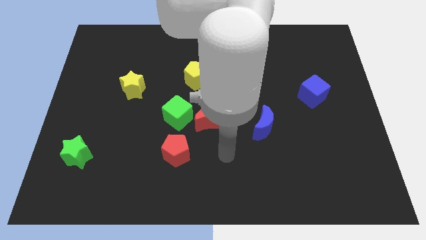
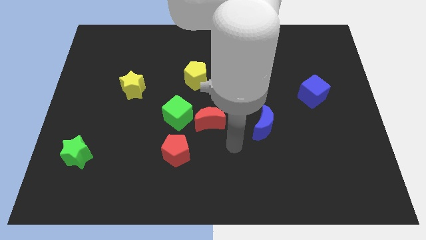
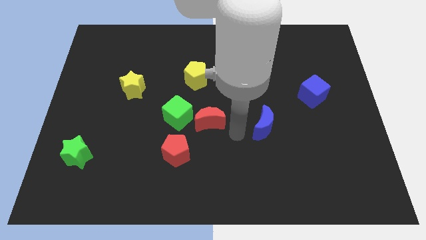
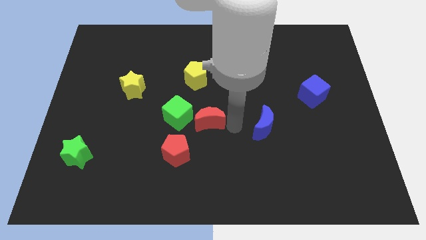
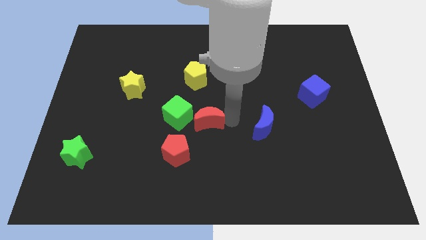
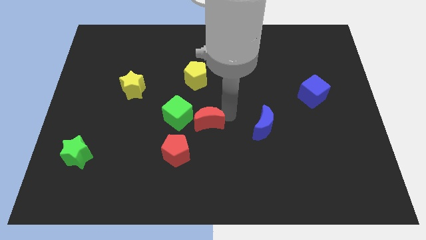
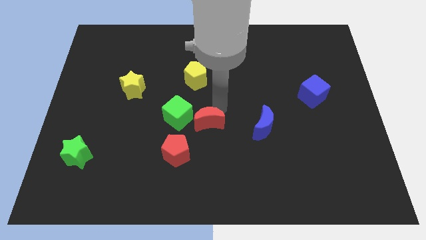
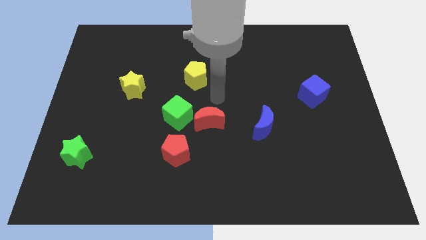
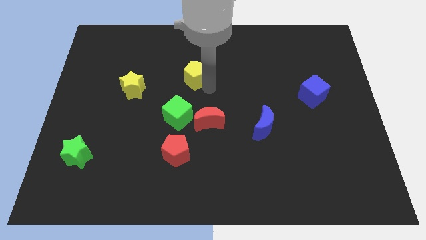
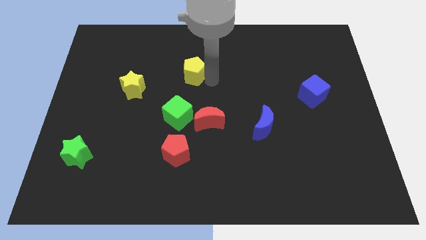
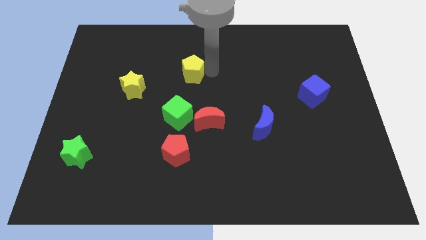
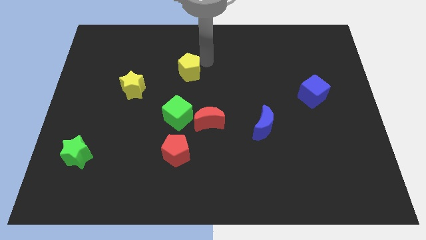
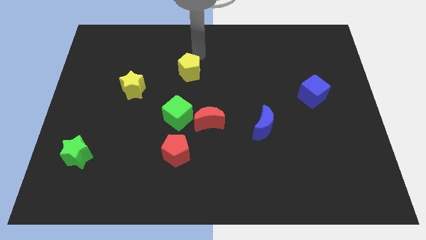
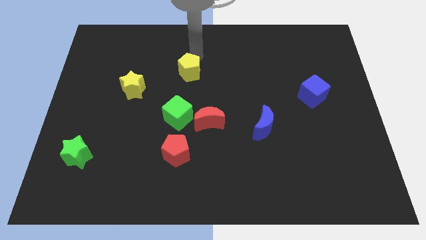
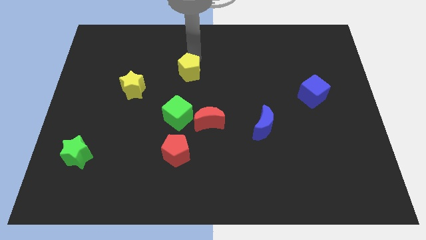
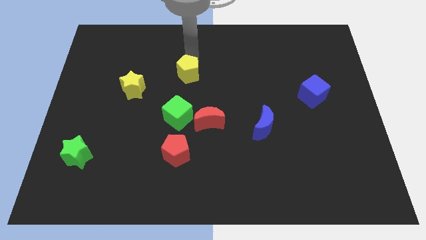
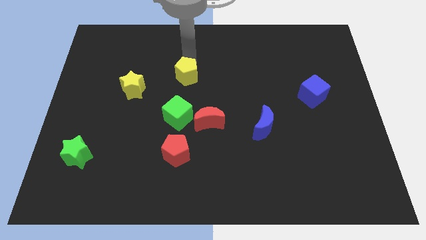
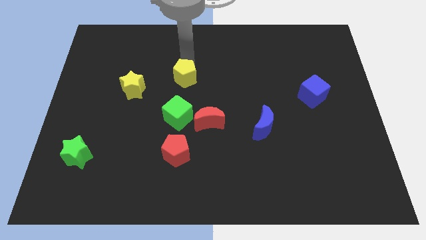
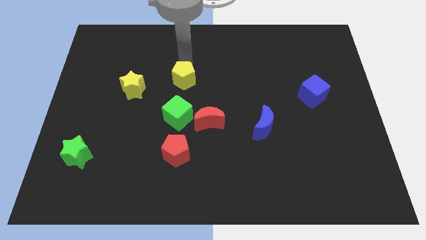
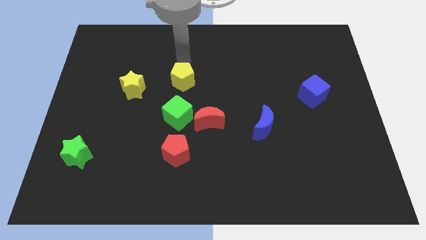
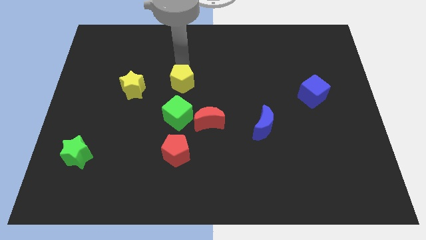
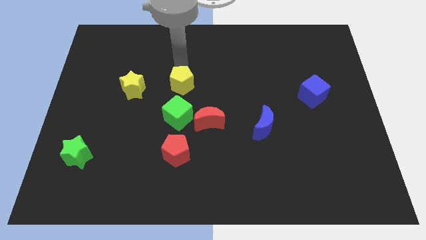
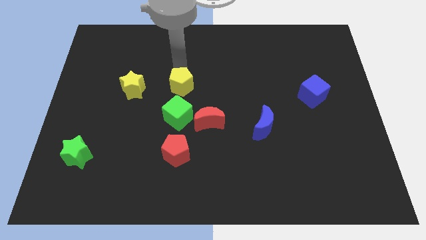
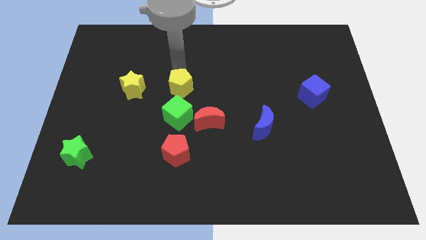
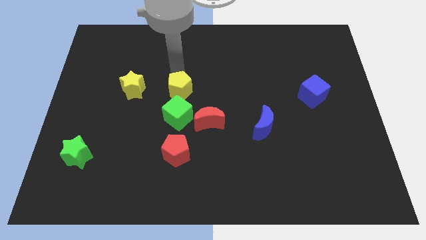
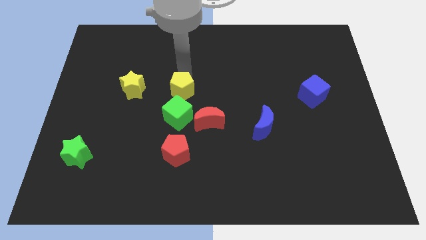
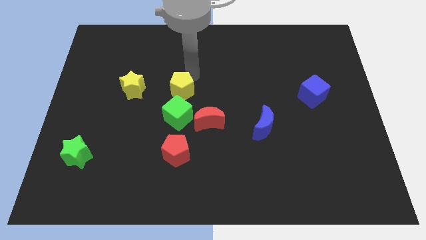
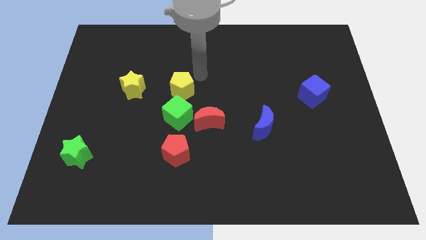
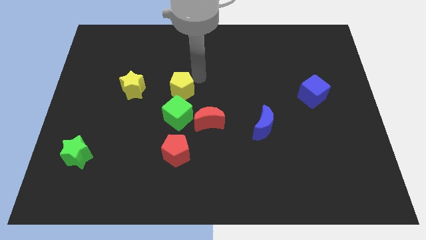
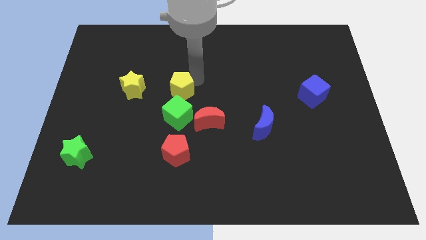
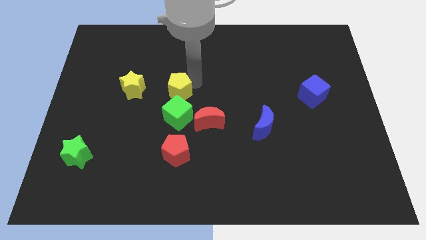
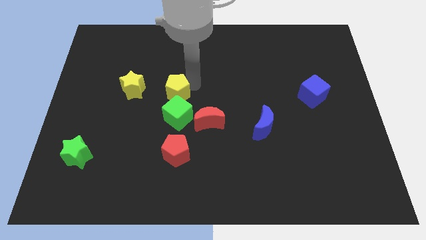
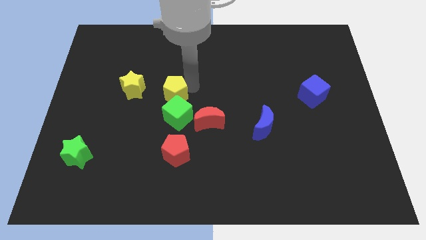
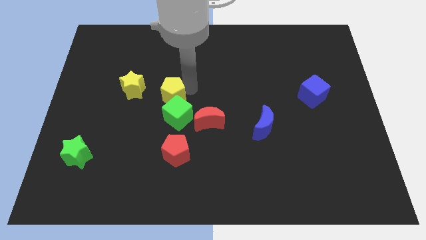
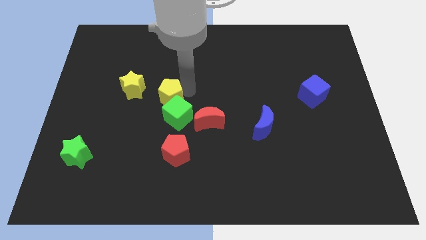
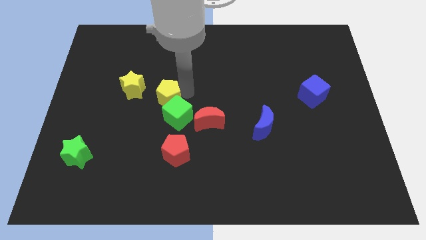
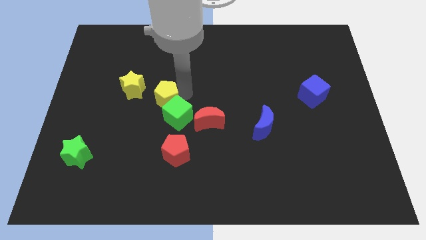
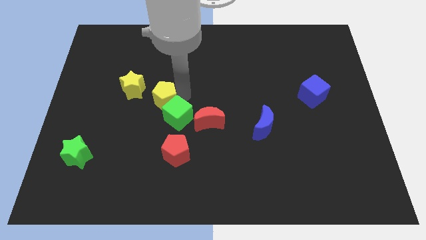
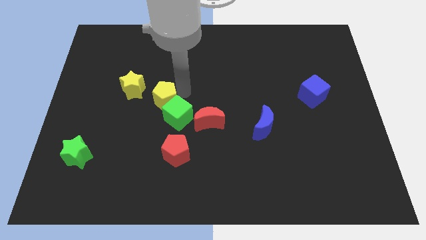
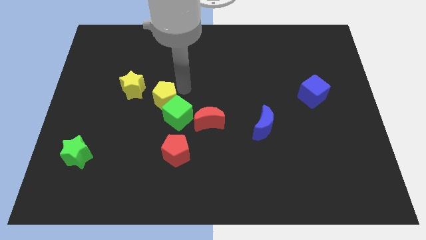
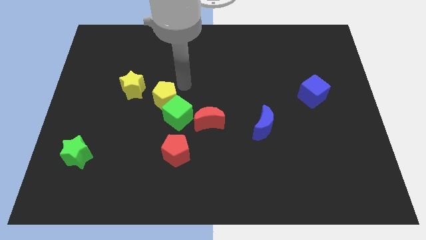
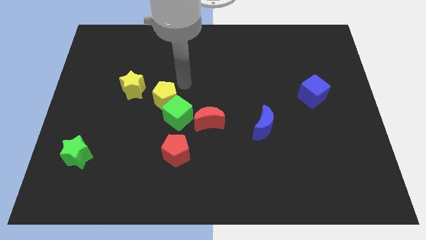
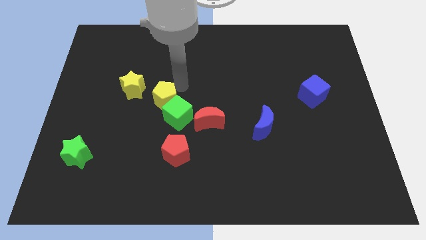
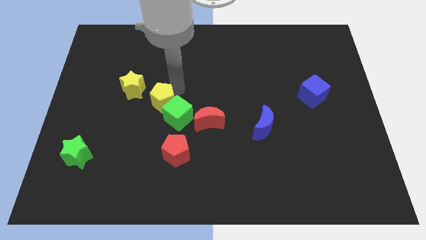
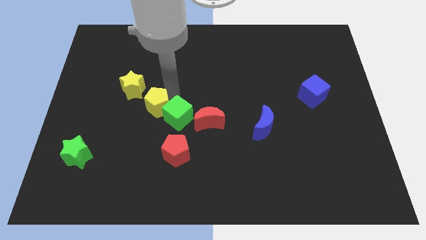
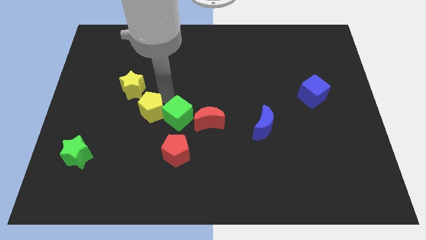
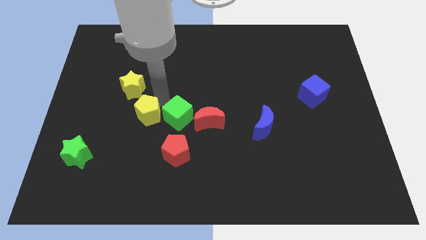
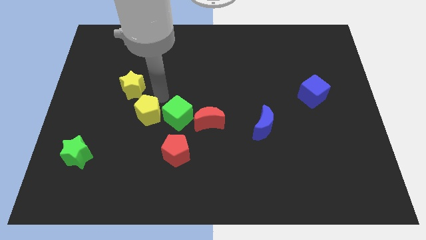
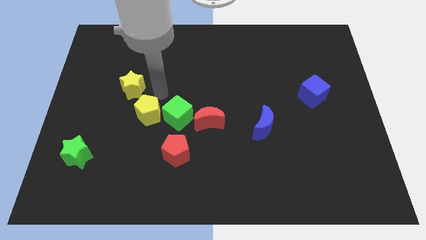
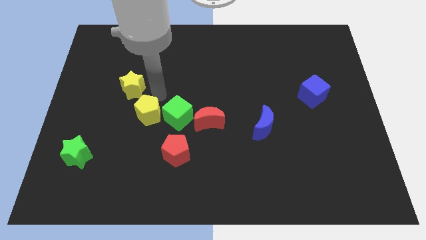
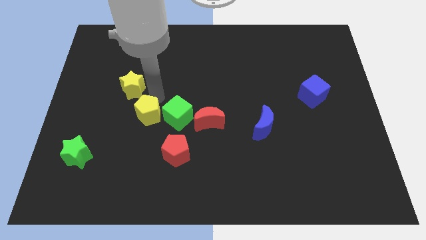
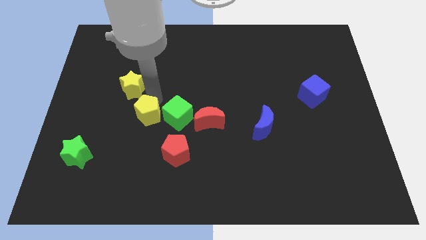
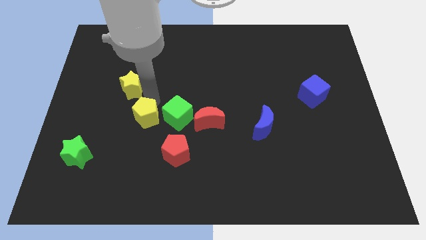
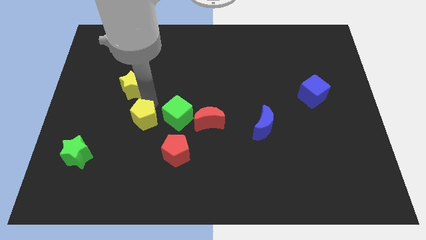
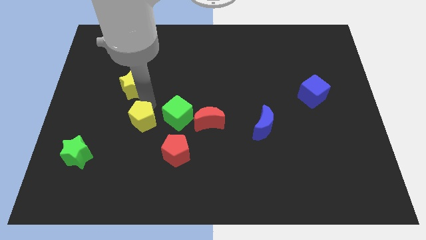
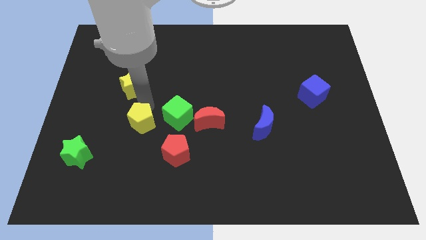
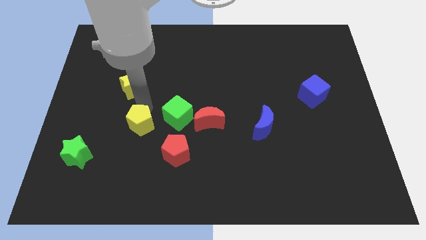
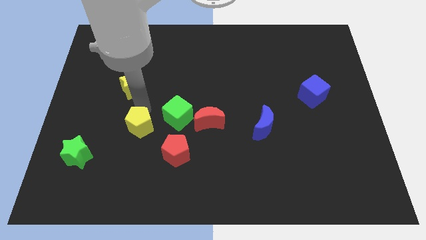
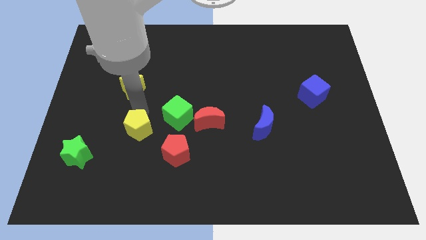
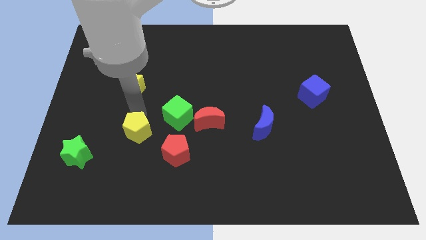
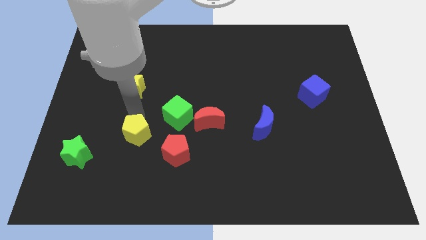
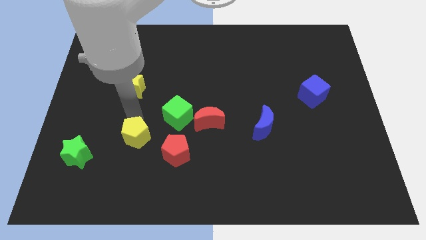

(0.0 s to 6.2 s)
push the yellow pentagon to the right of the green star

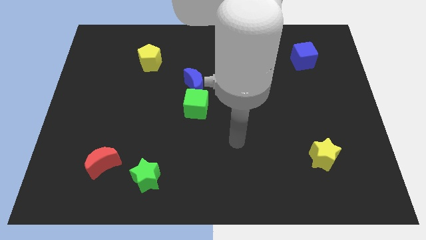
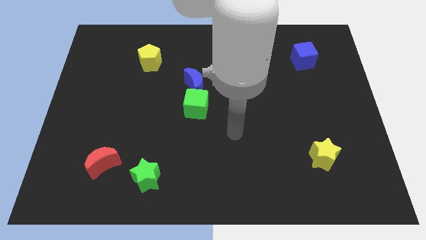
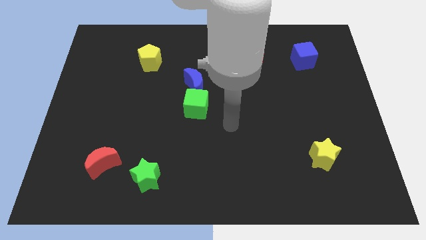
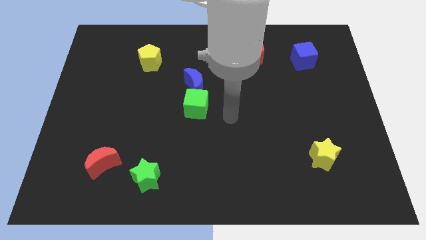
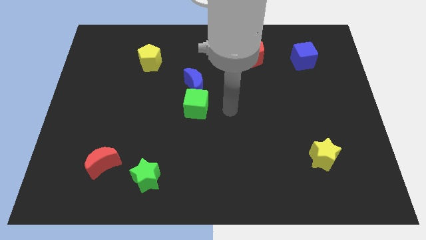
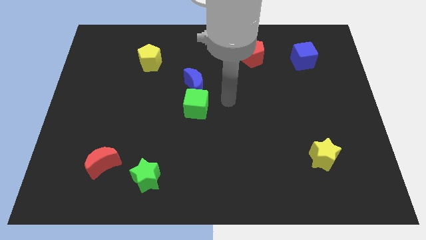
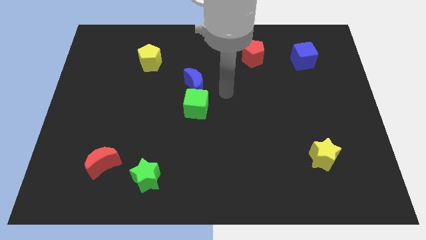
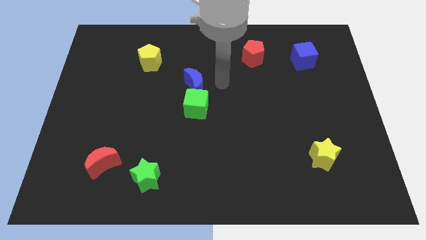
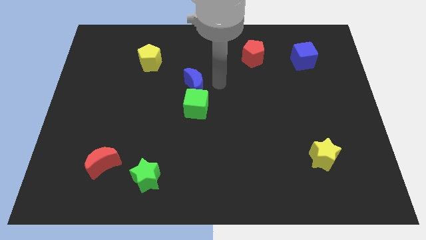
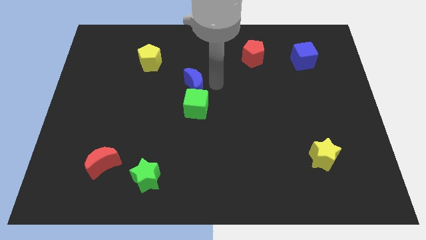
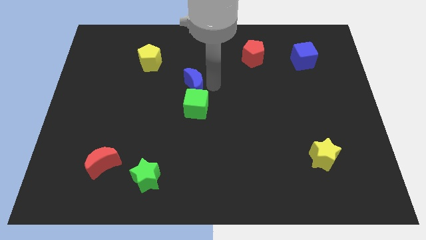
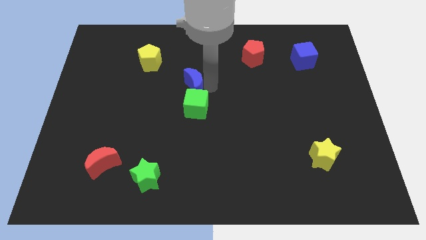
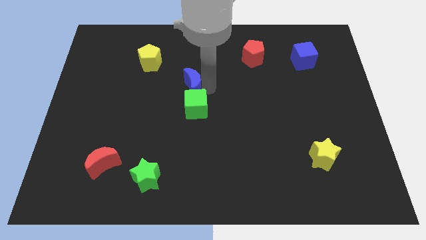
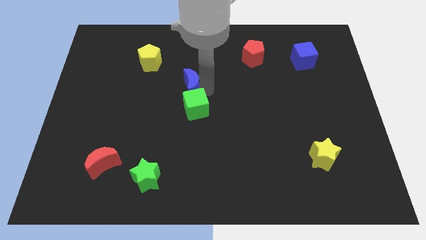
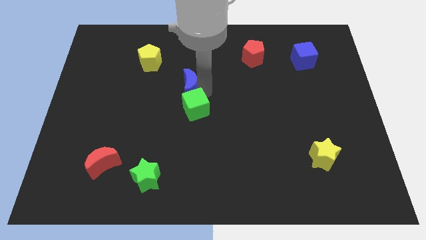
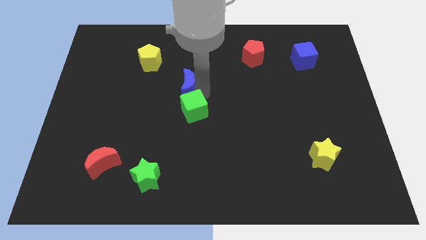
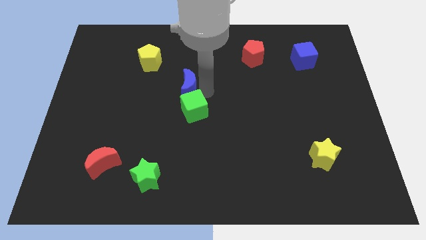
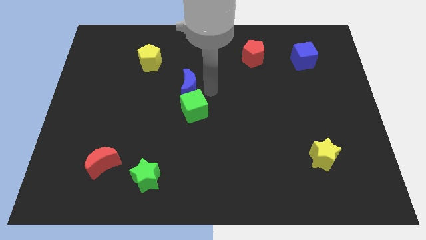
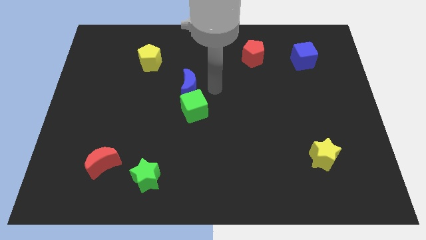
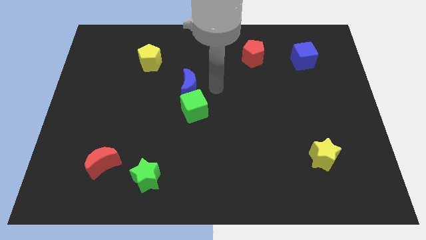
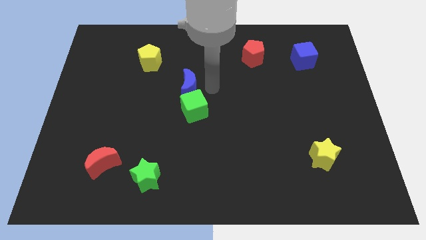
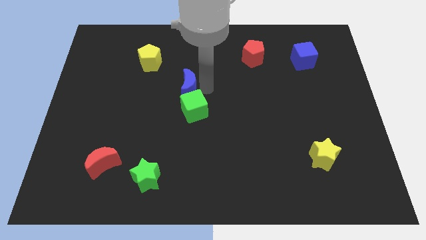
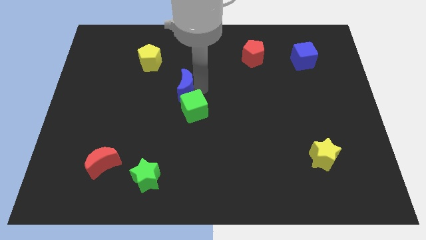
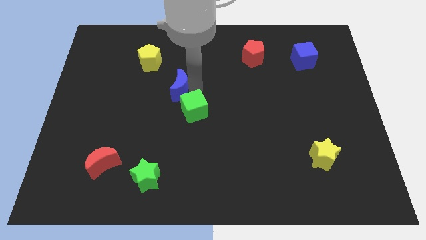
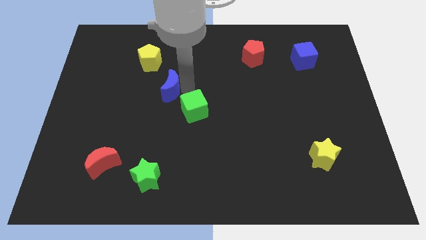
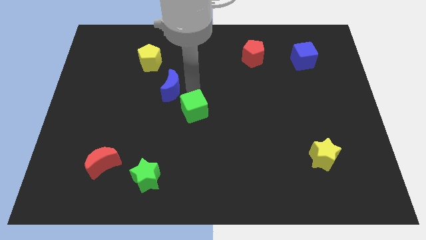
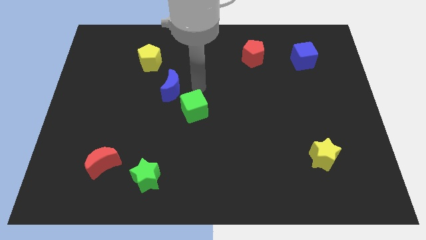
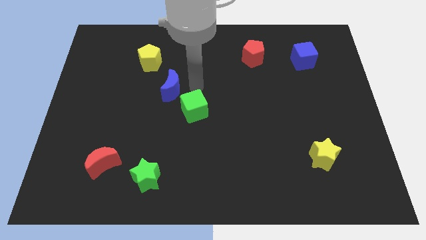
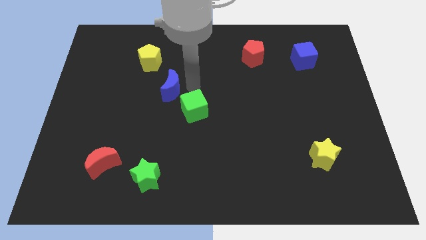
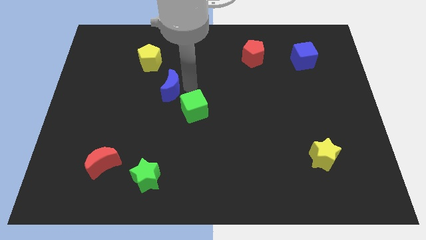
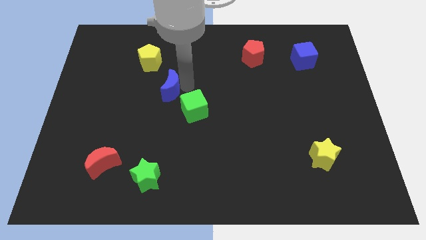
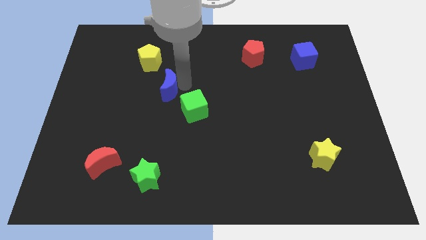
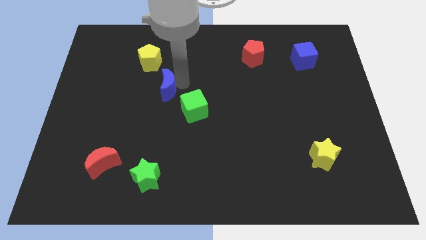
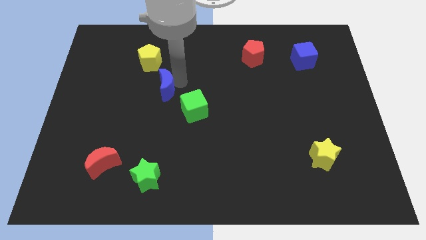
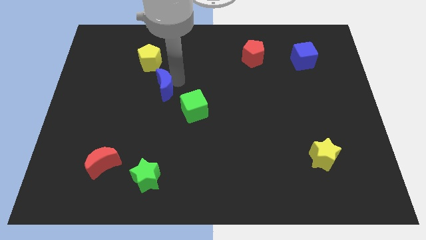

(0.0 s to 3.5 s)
move the blue moon below the yellow pentagon
